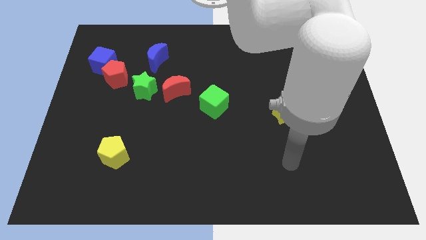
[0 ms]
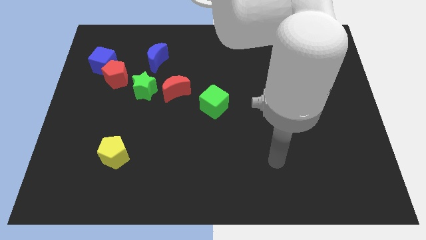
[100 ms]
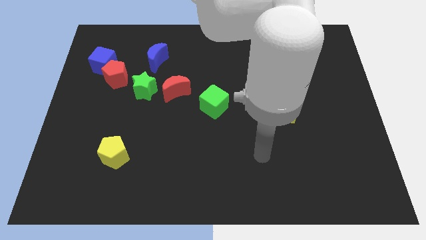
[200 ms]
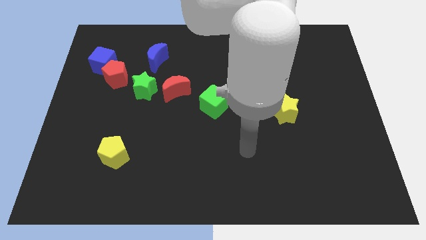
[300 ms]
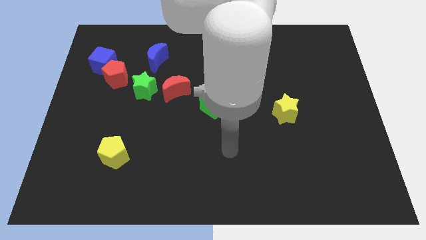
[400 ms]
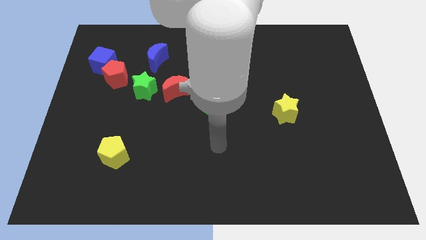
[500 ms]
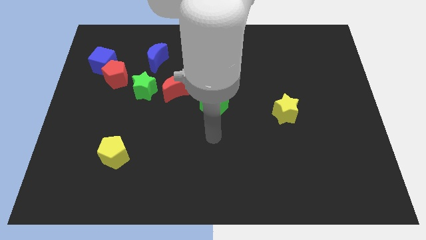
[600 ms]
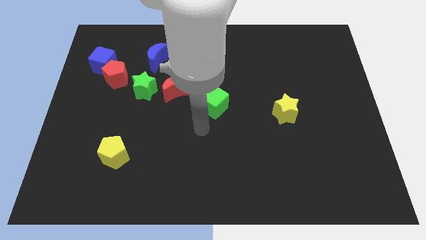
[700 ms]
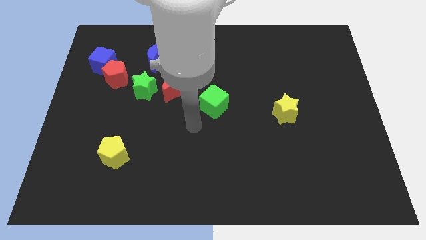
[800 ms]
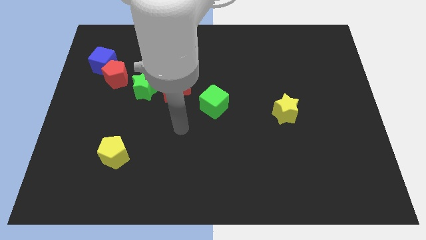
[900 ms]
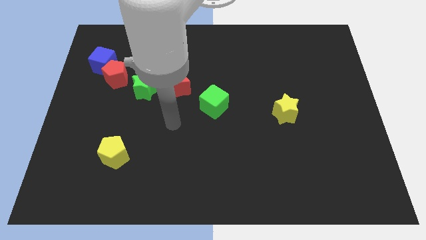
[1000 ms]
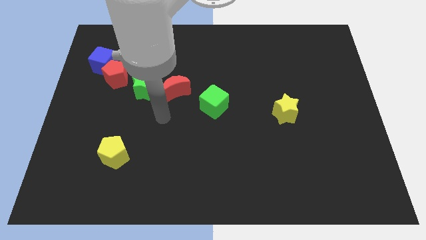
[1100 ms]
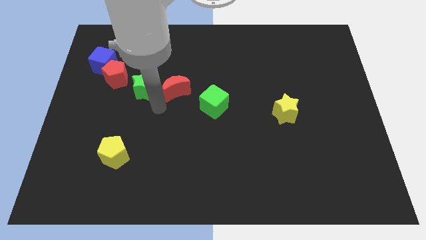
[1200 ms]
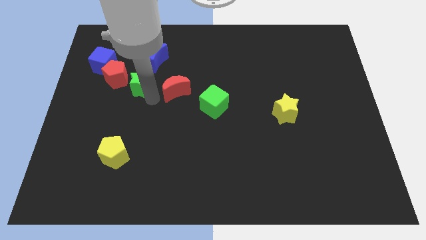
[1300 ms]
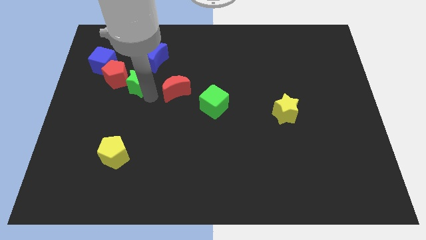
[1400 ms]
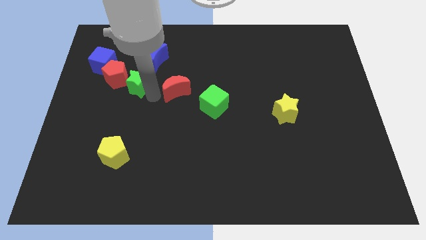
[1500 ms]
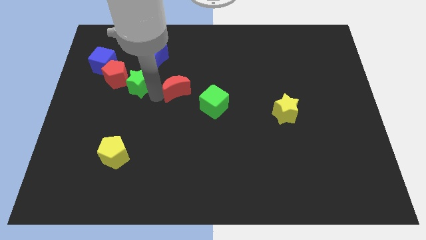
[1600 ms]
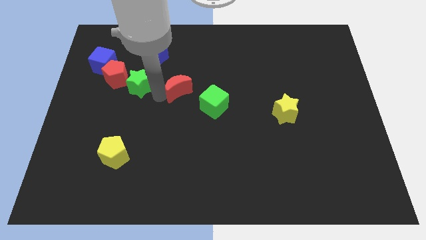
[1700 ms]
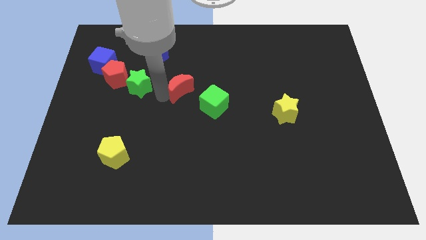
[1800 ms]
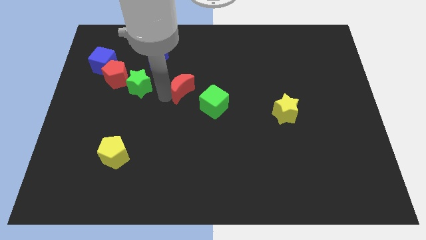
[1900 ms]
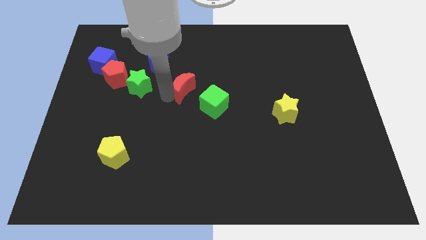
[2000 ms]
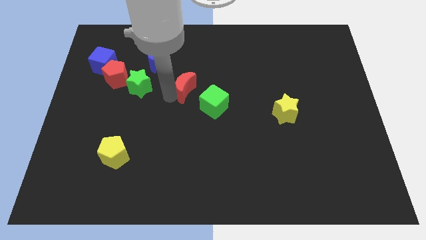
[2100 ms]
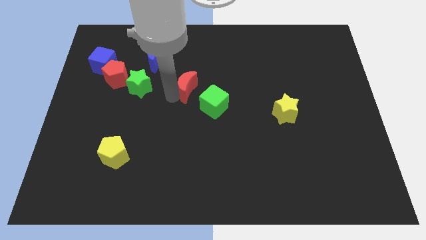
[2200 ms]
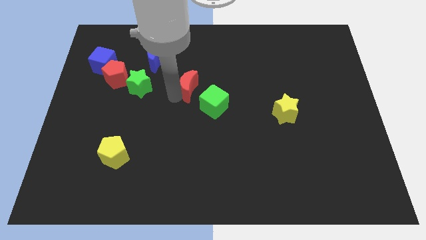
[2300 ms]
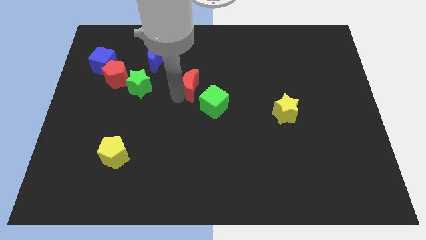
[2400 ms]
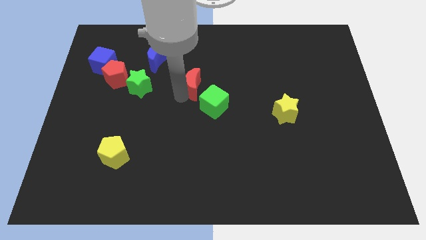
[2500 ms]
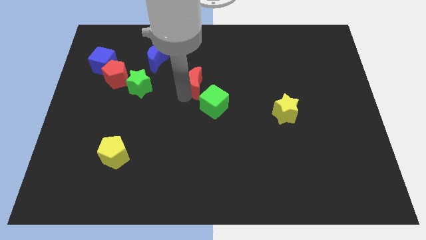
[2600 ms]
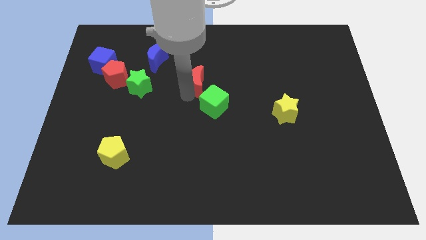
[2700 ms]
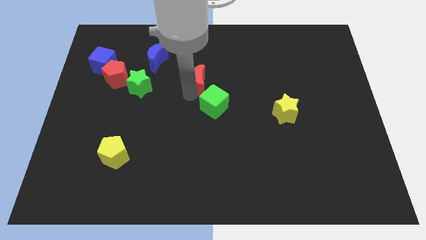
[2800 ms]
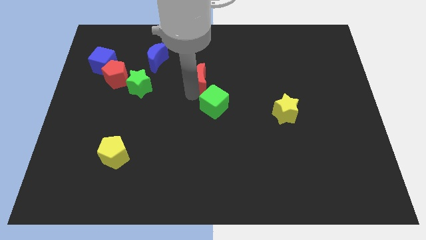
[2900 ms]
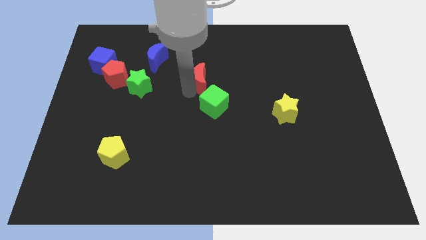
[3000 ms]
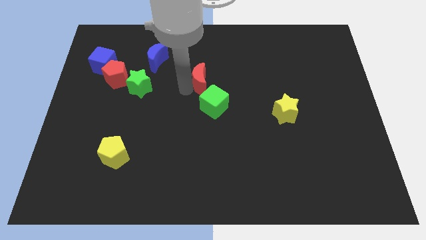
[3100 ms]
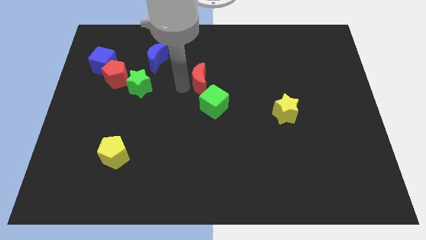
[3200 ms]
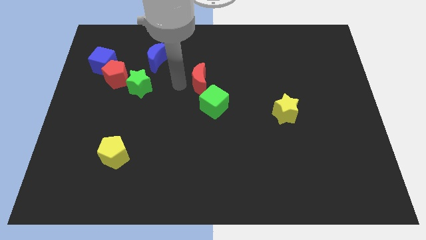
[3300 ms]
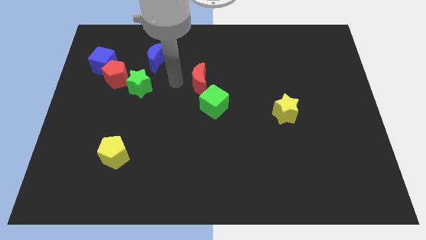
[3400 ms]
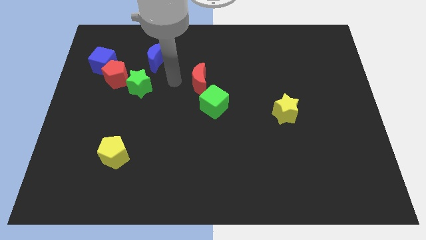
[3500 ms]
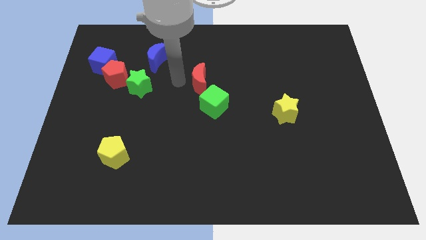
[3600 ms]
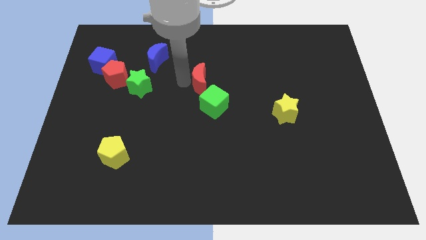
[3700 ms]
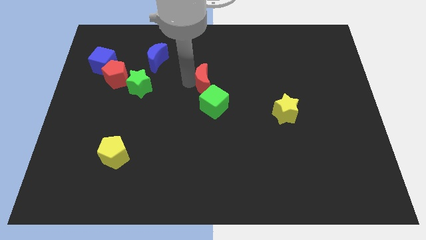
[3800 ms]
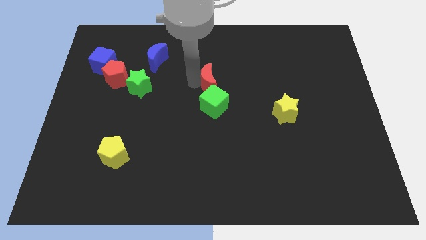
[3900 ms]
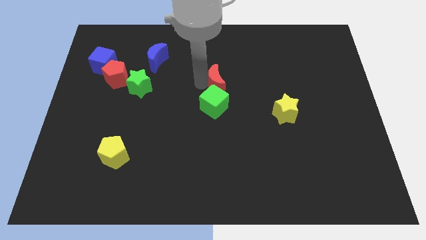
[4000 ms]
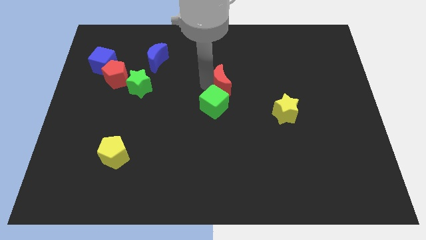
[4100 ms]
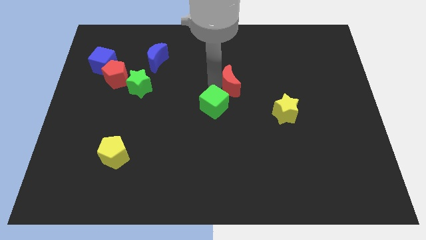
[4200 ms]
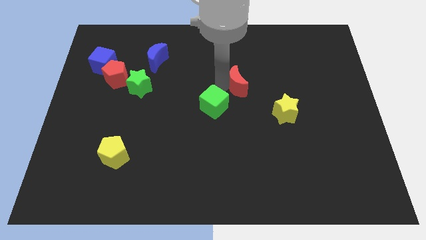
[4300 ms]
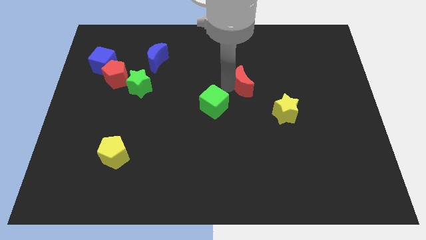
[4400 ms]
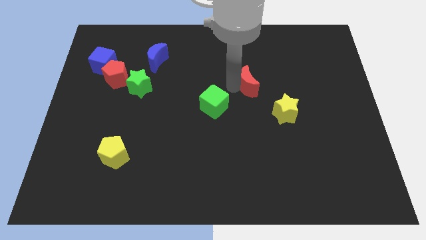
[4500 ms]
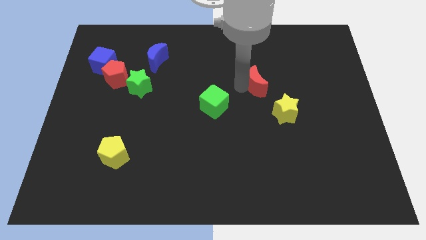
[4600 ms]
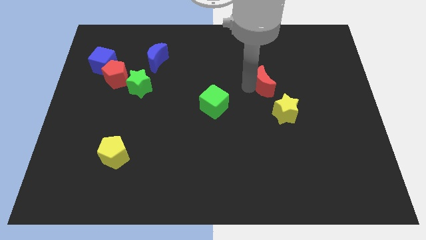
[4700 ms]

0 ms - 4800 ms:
slide the red moon above the yellow star

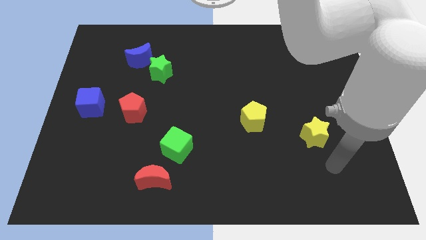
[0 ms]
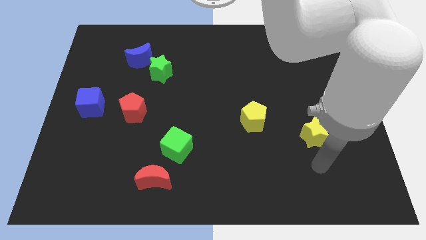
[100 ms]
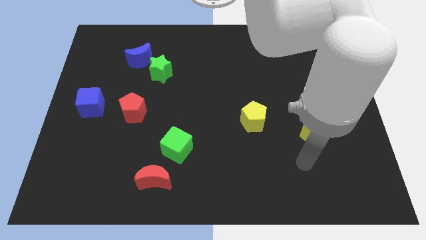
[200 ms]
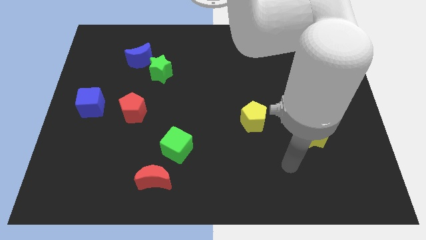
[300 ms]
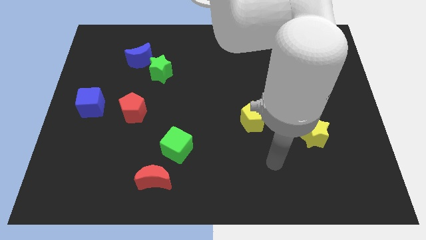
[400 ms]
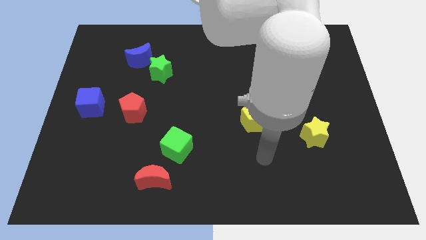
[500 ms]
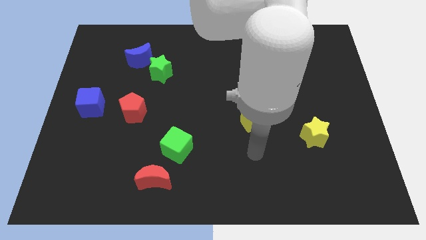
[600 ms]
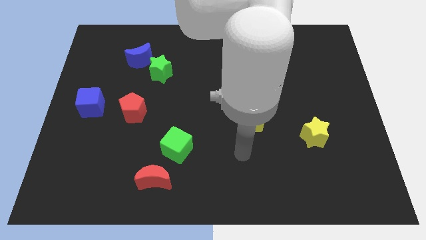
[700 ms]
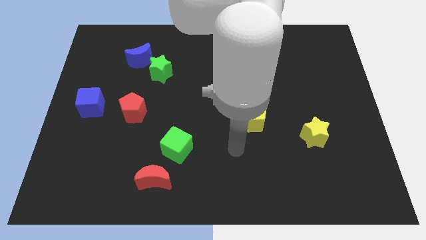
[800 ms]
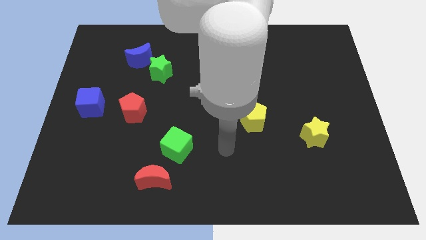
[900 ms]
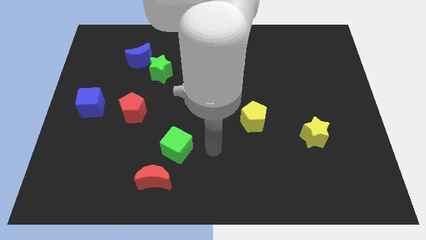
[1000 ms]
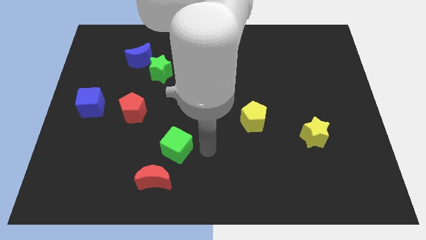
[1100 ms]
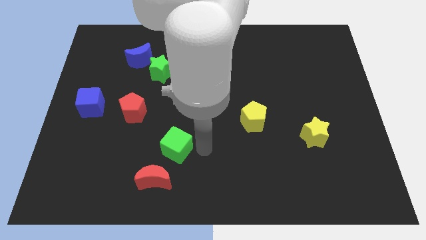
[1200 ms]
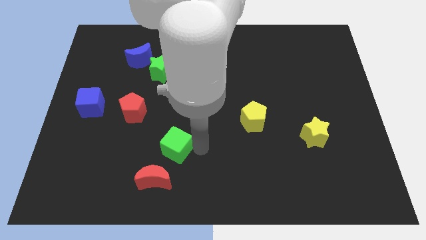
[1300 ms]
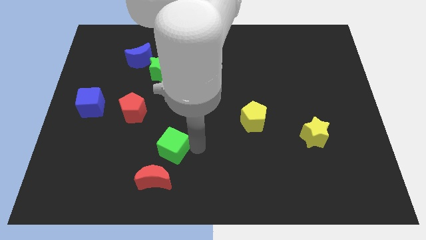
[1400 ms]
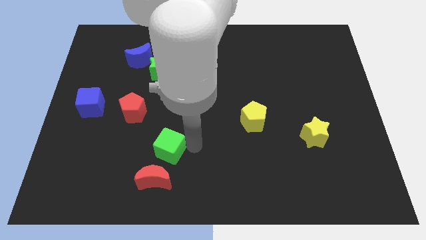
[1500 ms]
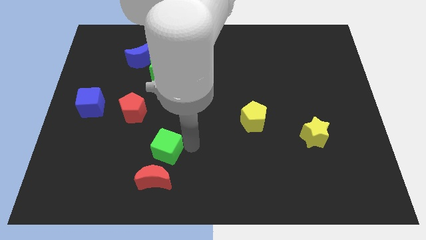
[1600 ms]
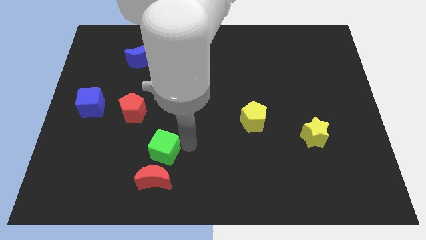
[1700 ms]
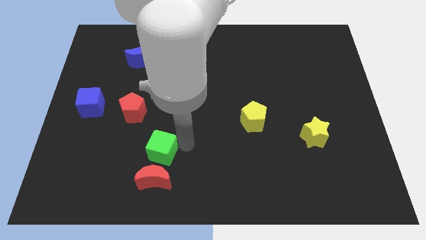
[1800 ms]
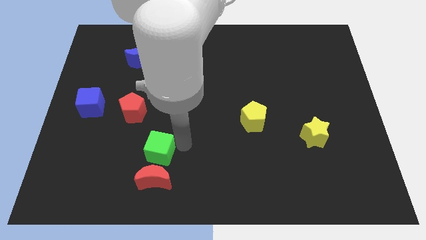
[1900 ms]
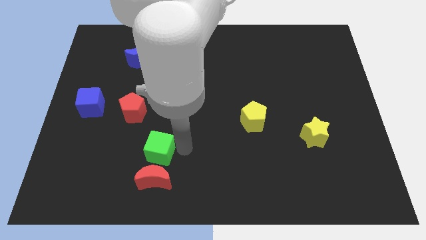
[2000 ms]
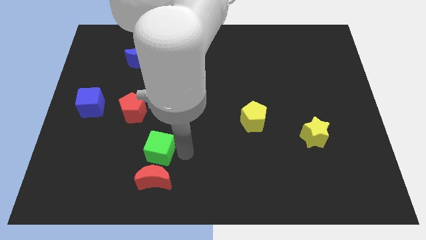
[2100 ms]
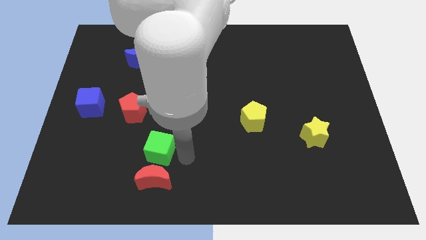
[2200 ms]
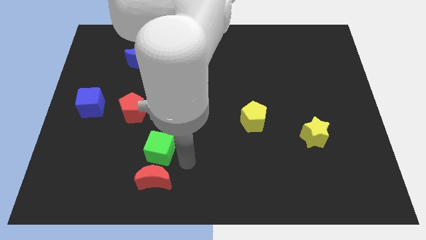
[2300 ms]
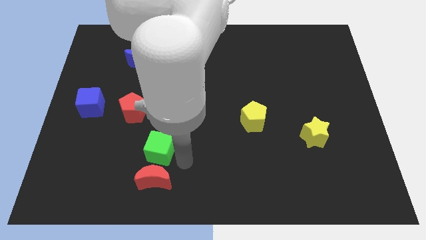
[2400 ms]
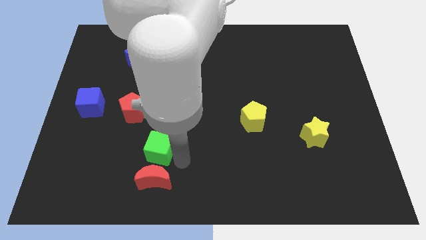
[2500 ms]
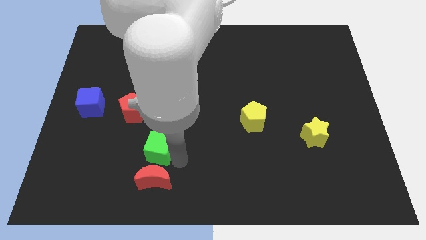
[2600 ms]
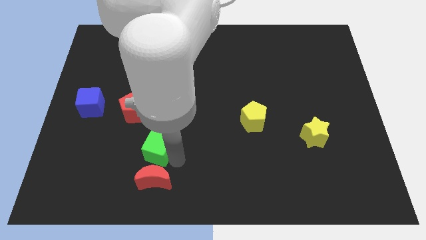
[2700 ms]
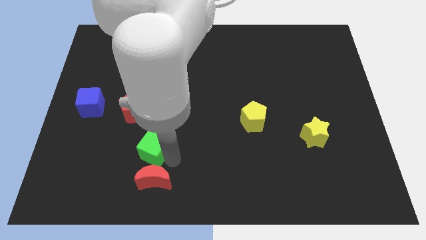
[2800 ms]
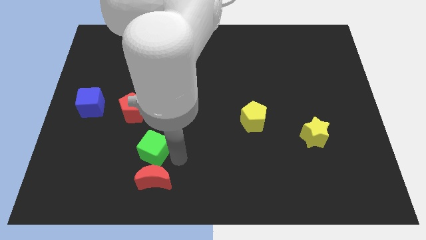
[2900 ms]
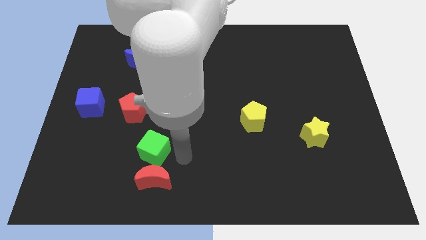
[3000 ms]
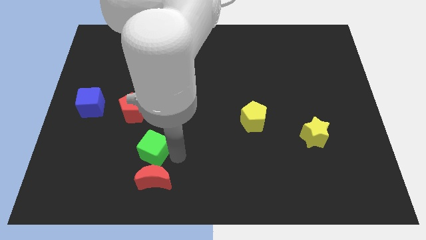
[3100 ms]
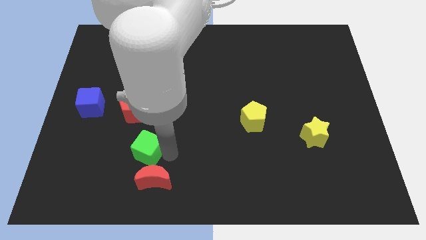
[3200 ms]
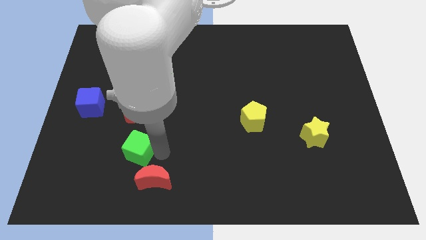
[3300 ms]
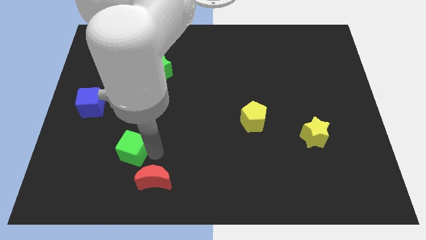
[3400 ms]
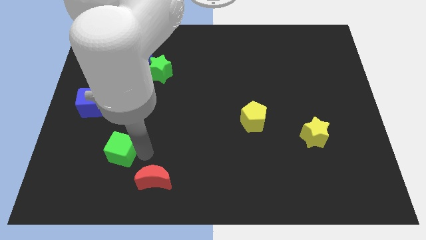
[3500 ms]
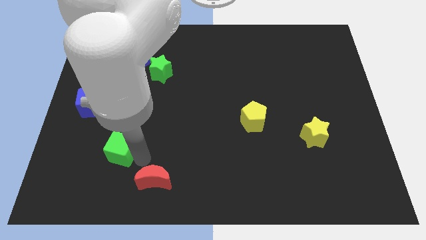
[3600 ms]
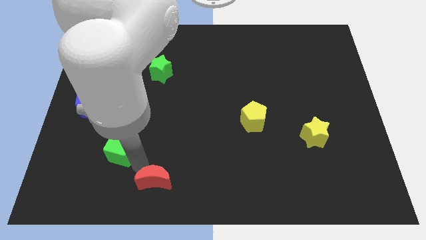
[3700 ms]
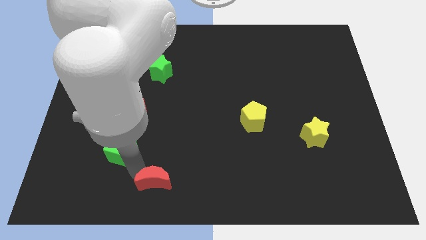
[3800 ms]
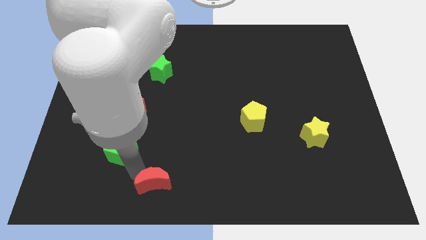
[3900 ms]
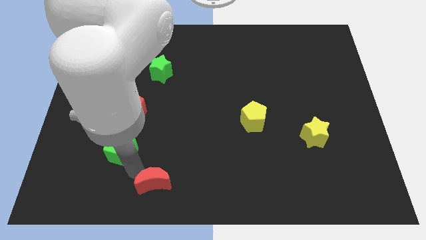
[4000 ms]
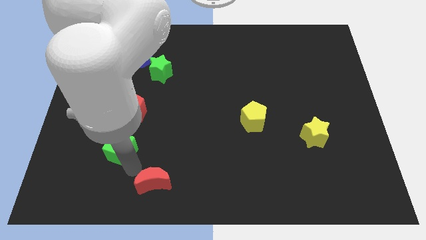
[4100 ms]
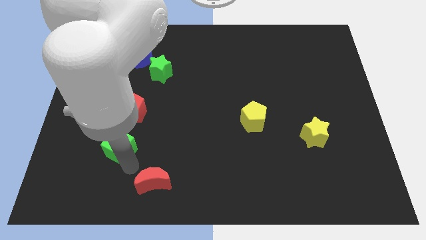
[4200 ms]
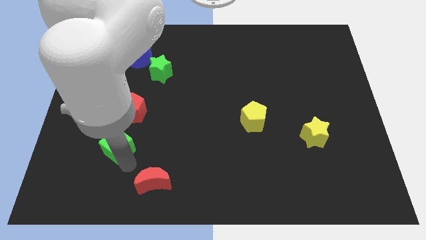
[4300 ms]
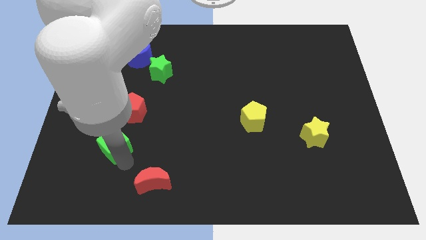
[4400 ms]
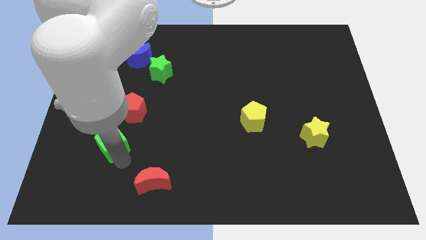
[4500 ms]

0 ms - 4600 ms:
move the green cube to the bottom left side of the red pentagon
